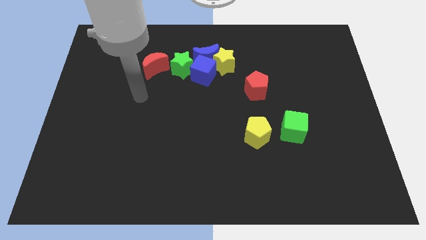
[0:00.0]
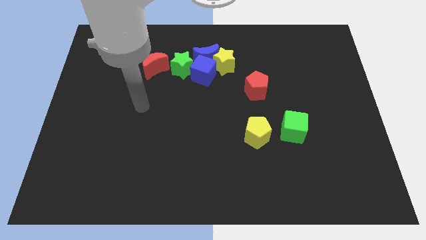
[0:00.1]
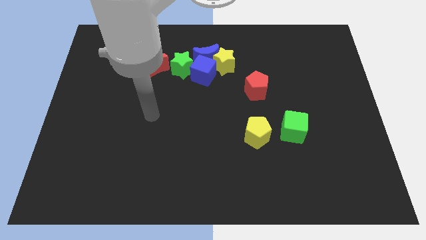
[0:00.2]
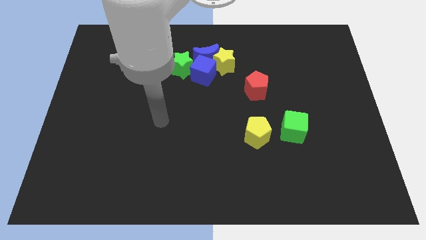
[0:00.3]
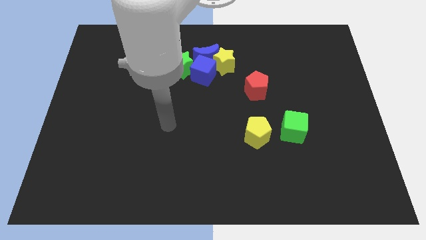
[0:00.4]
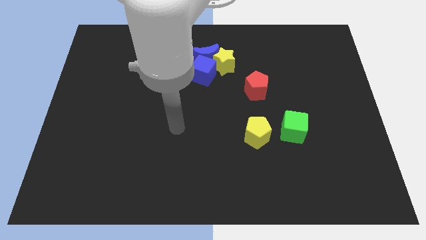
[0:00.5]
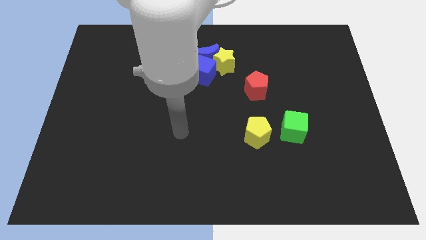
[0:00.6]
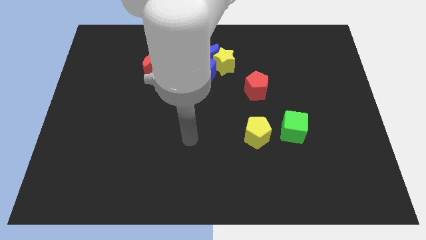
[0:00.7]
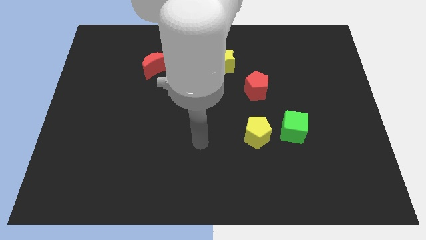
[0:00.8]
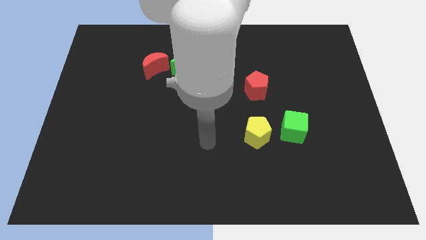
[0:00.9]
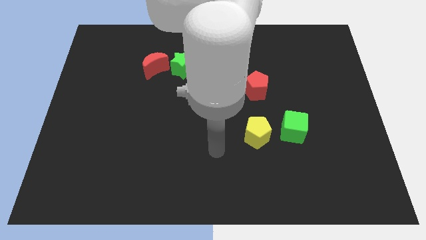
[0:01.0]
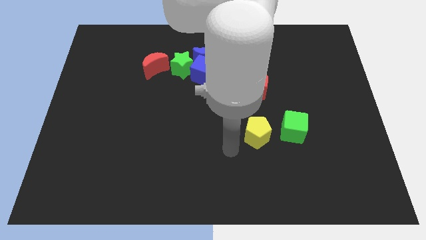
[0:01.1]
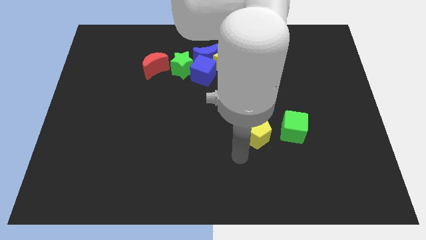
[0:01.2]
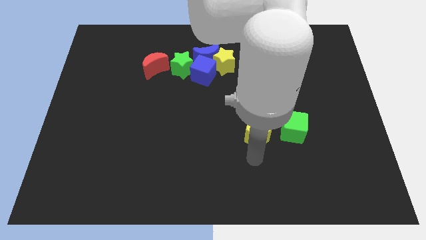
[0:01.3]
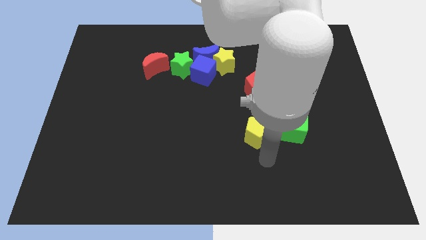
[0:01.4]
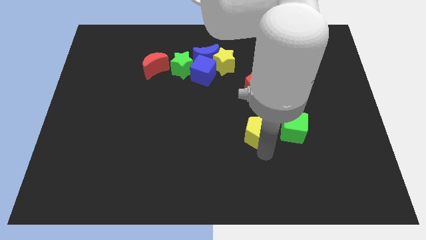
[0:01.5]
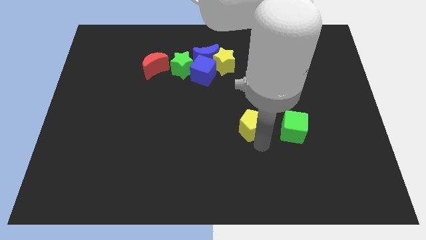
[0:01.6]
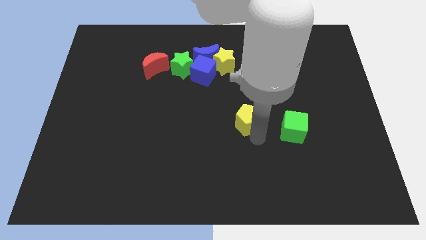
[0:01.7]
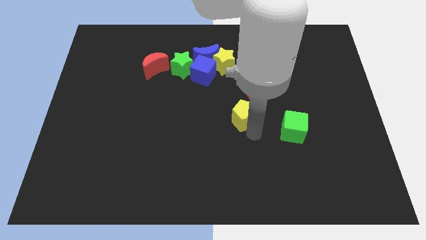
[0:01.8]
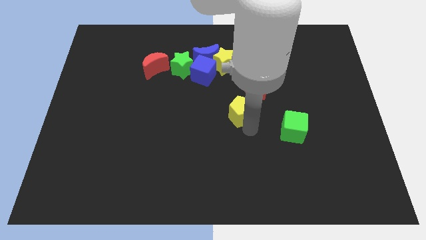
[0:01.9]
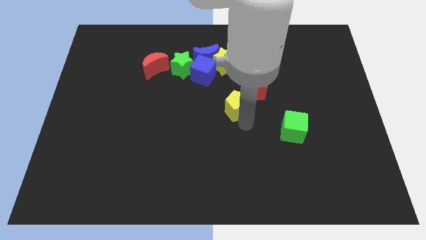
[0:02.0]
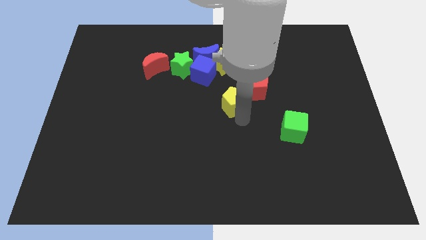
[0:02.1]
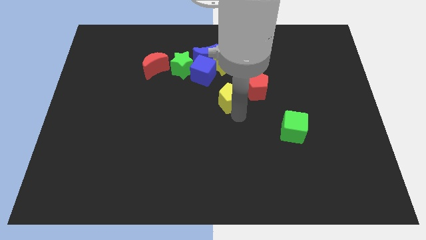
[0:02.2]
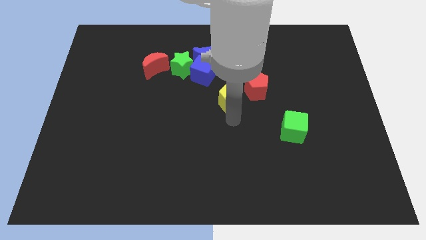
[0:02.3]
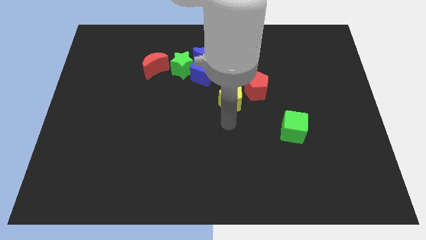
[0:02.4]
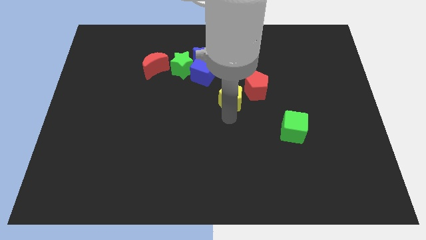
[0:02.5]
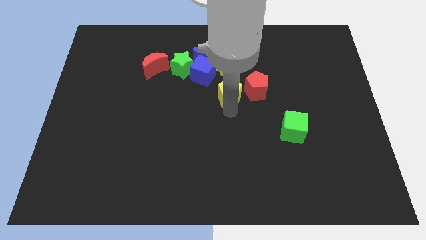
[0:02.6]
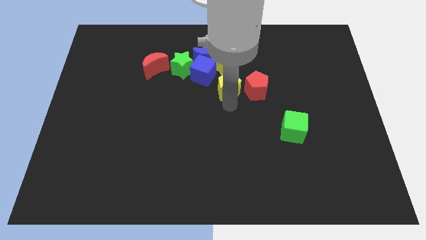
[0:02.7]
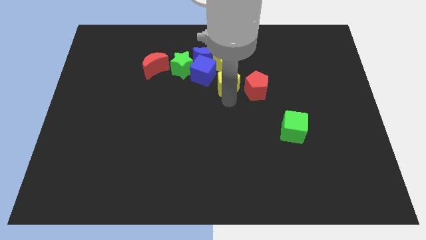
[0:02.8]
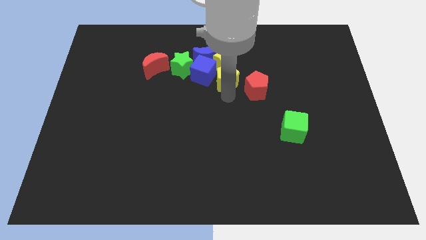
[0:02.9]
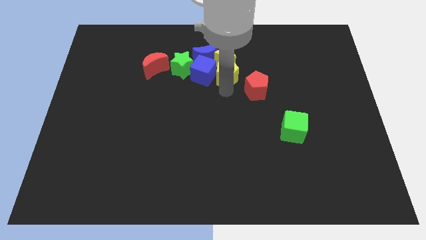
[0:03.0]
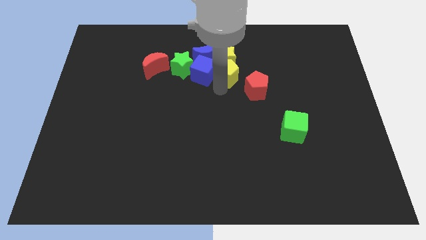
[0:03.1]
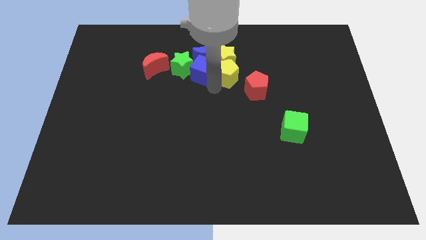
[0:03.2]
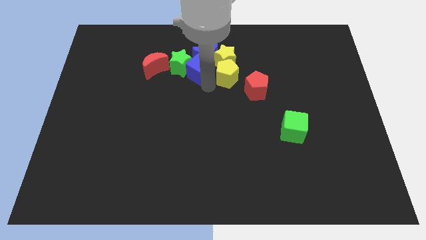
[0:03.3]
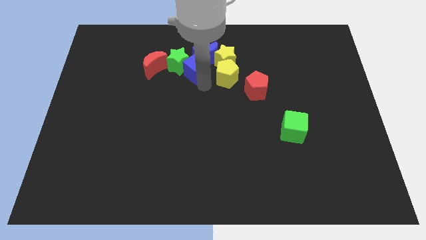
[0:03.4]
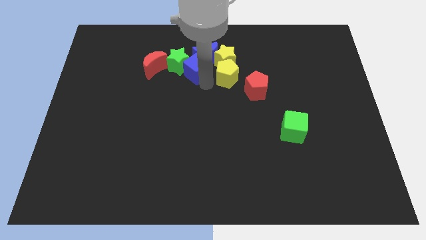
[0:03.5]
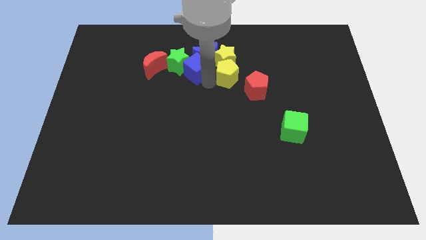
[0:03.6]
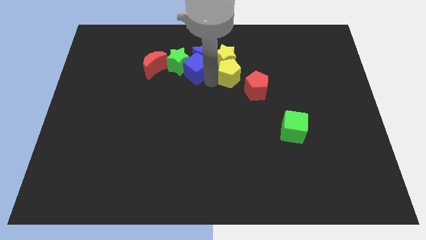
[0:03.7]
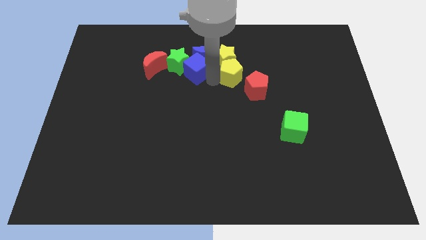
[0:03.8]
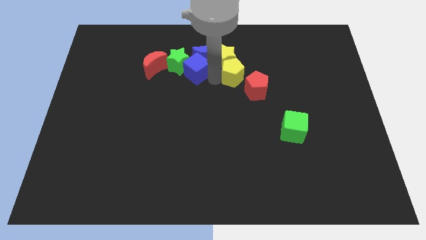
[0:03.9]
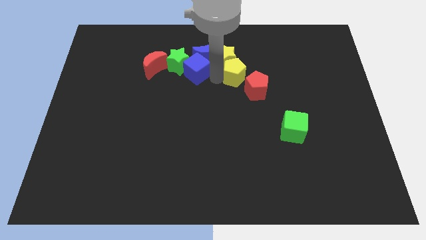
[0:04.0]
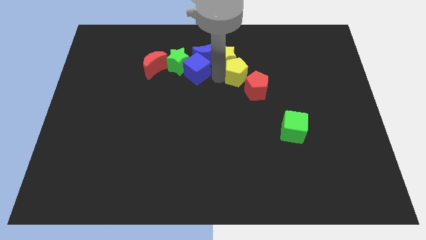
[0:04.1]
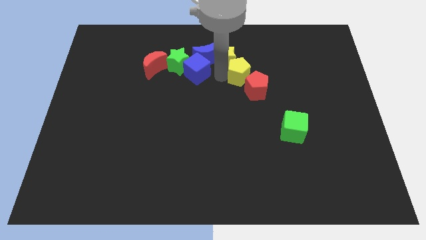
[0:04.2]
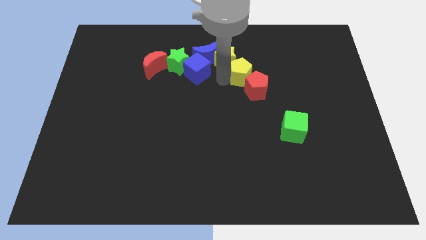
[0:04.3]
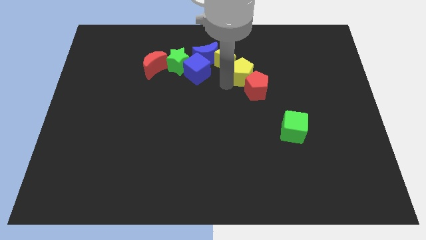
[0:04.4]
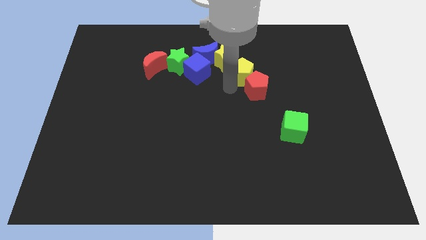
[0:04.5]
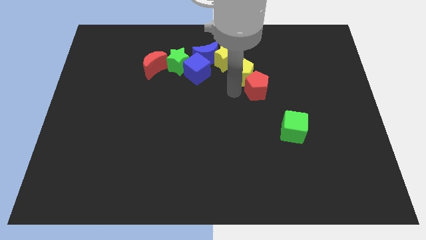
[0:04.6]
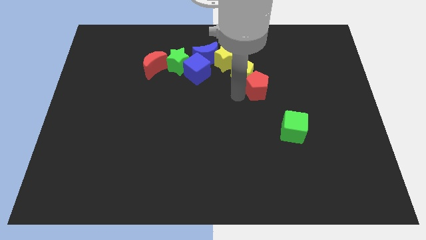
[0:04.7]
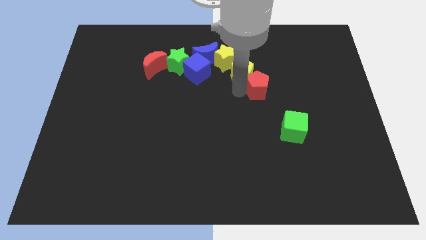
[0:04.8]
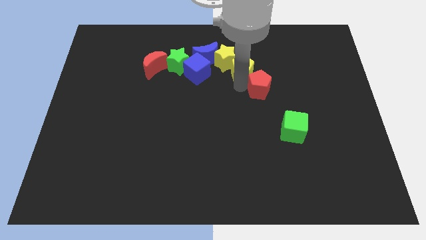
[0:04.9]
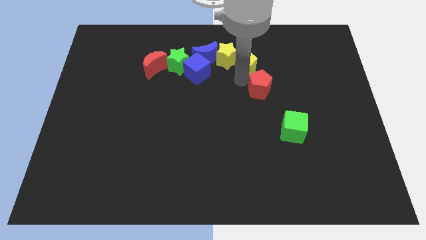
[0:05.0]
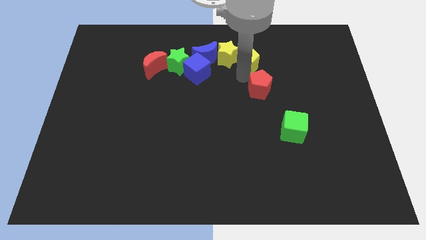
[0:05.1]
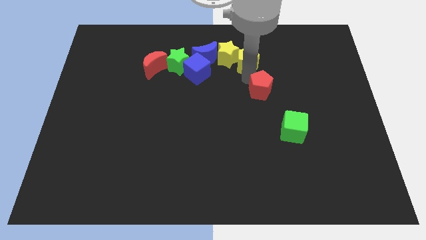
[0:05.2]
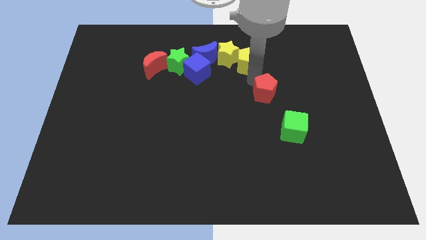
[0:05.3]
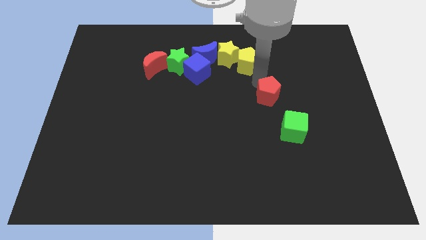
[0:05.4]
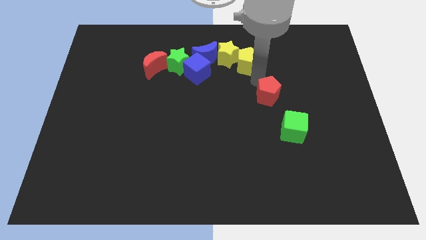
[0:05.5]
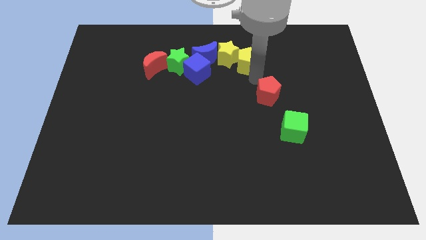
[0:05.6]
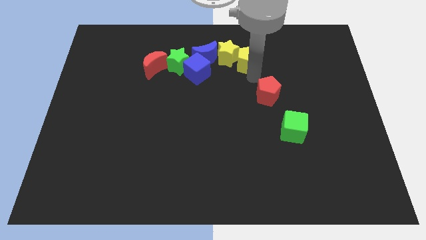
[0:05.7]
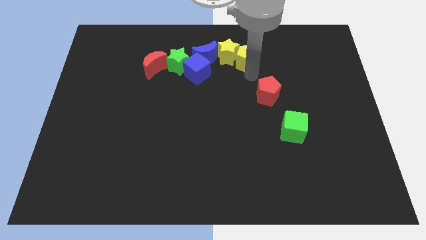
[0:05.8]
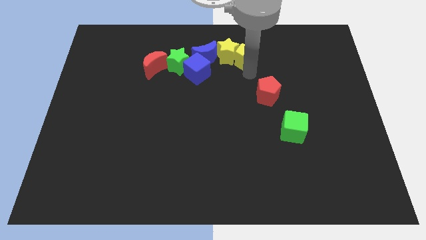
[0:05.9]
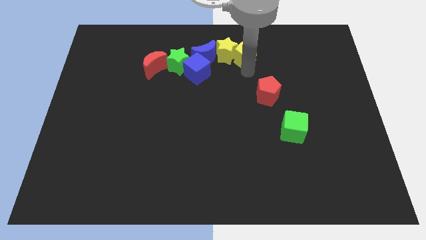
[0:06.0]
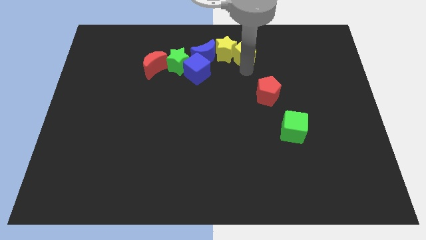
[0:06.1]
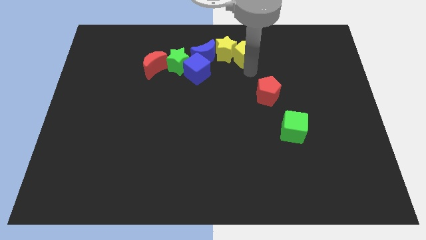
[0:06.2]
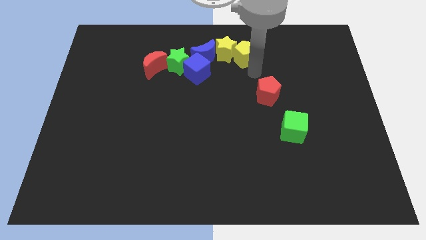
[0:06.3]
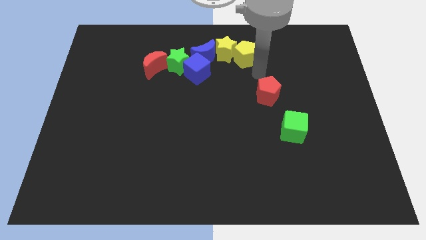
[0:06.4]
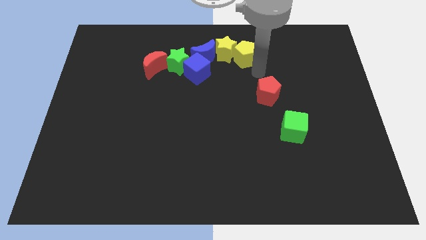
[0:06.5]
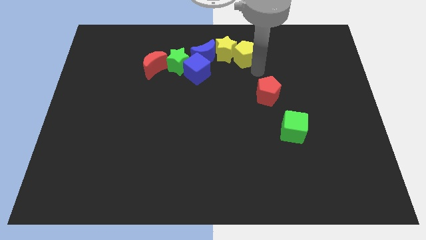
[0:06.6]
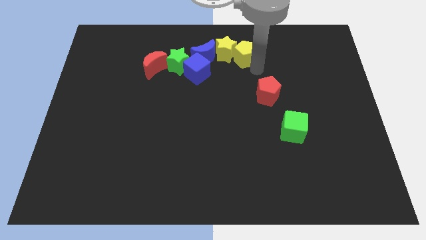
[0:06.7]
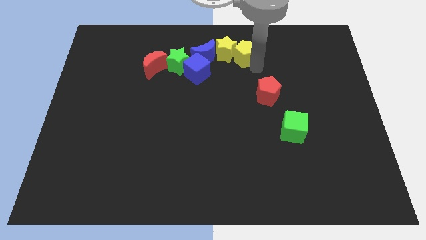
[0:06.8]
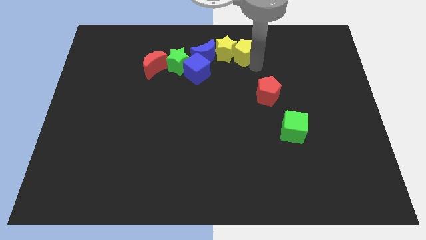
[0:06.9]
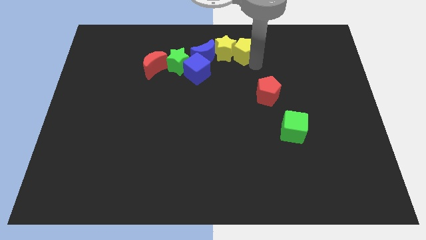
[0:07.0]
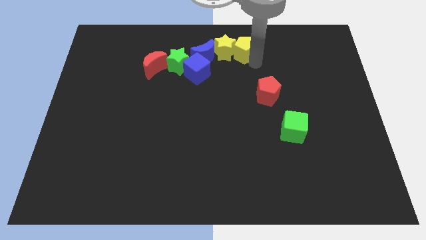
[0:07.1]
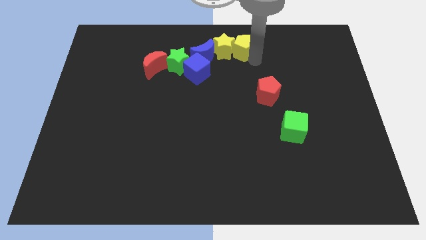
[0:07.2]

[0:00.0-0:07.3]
move the yellow pentagon to the top
